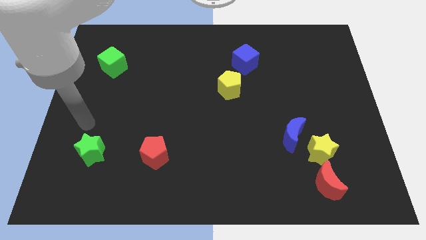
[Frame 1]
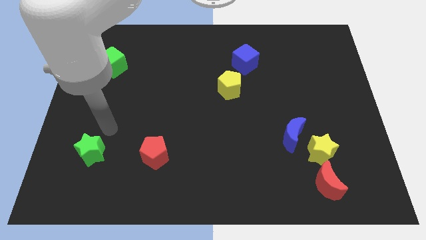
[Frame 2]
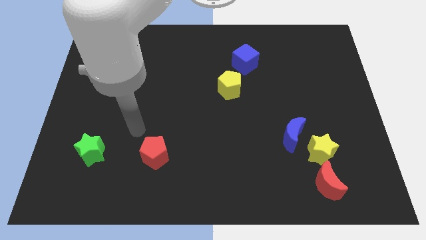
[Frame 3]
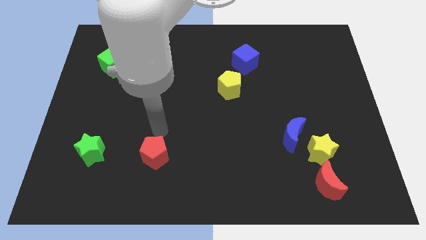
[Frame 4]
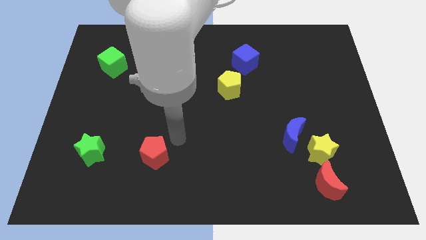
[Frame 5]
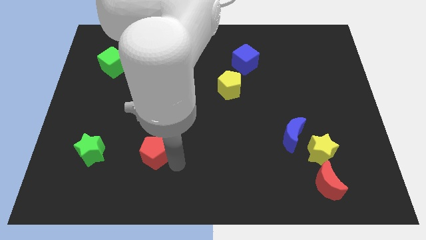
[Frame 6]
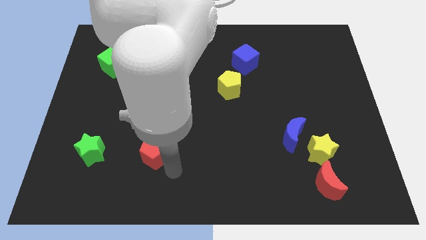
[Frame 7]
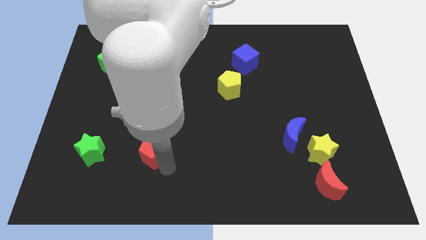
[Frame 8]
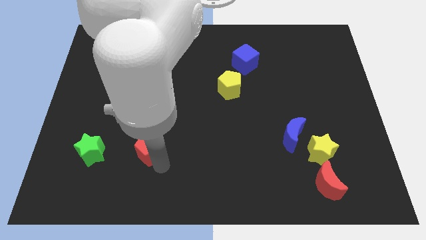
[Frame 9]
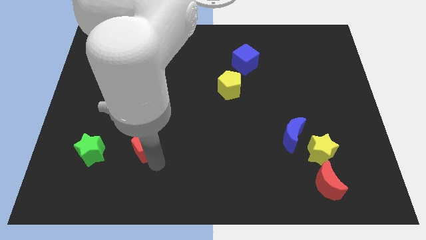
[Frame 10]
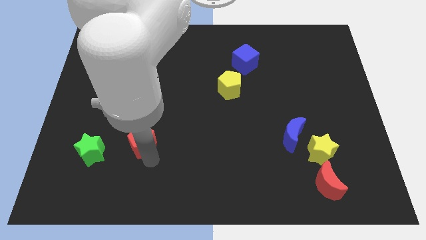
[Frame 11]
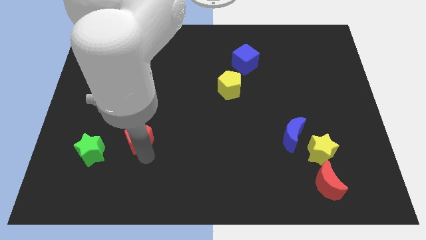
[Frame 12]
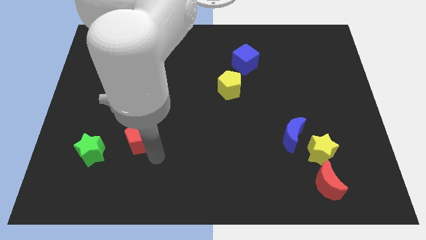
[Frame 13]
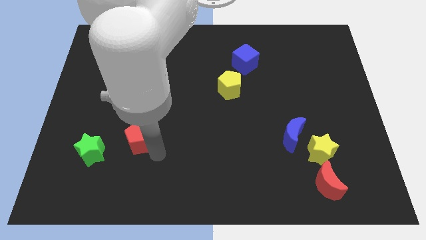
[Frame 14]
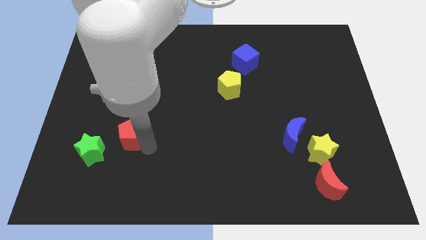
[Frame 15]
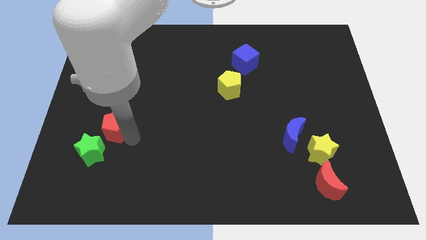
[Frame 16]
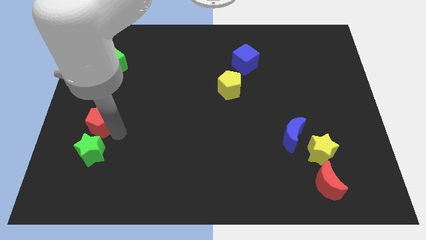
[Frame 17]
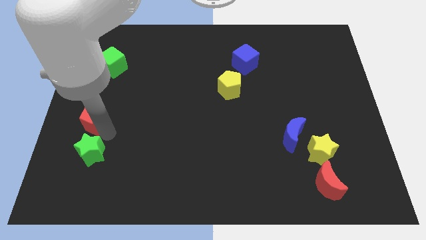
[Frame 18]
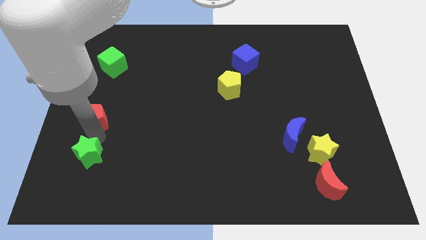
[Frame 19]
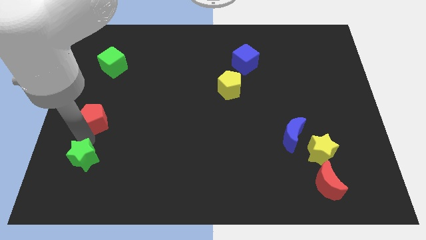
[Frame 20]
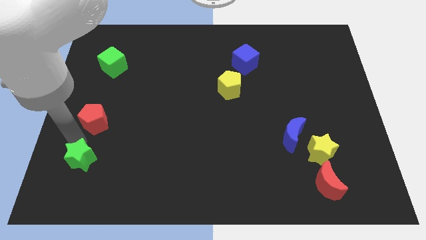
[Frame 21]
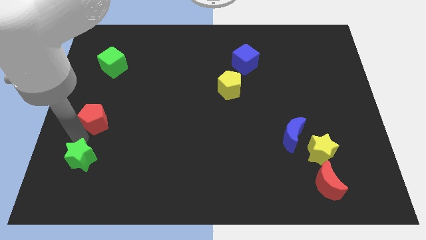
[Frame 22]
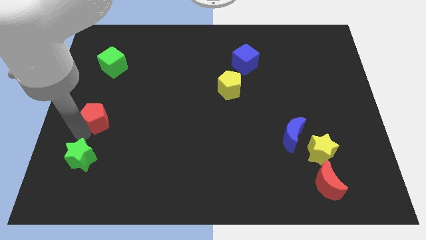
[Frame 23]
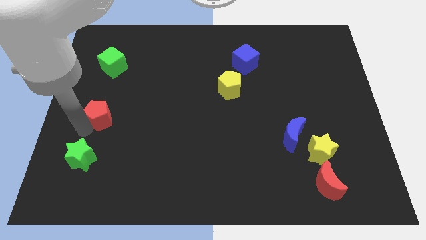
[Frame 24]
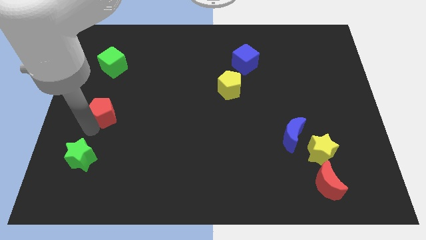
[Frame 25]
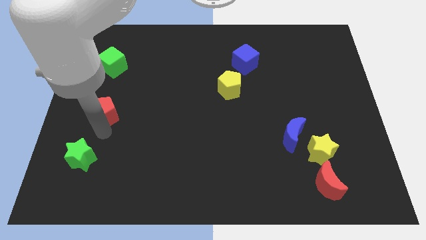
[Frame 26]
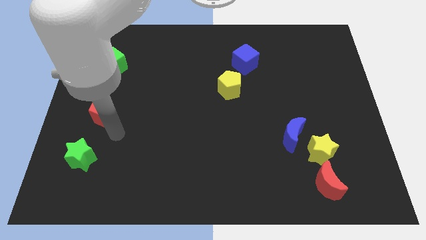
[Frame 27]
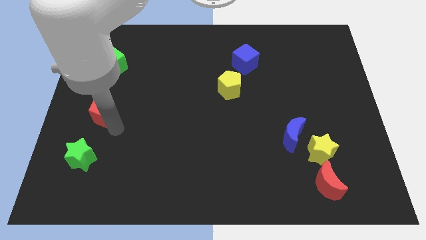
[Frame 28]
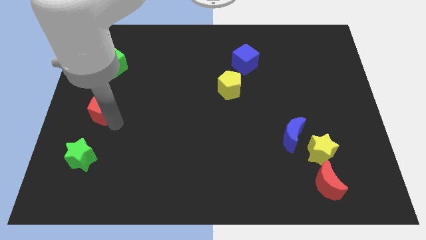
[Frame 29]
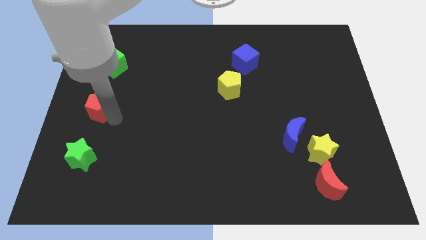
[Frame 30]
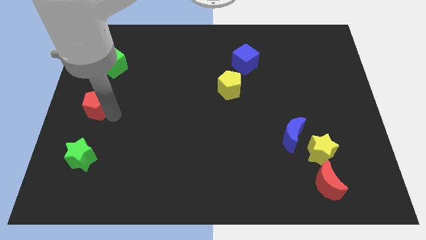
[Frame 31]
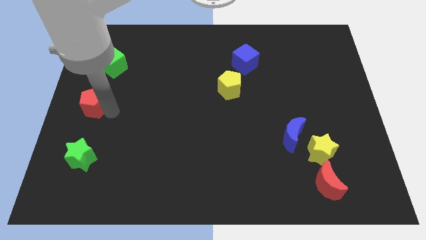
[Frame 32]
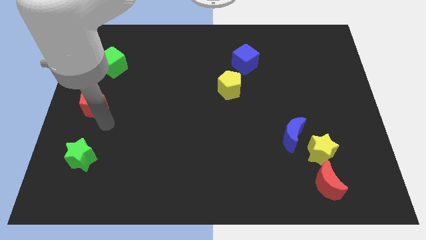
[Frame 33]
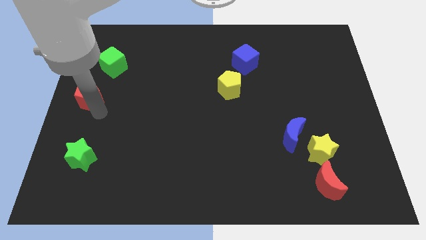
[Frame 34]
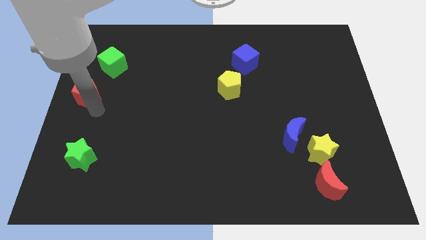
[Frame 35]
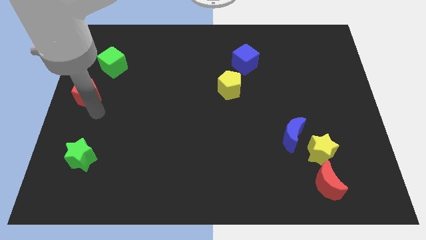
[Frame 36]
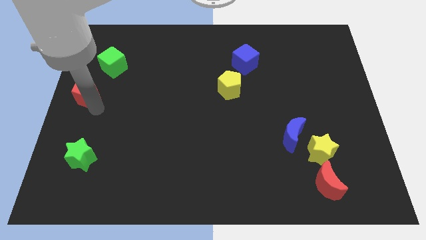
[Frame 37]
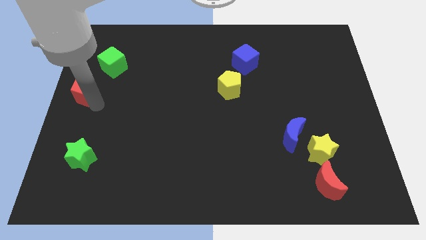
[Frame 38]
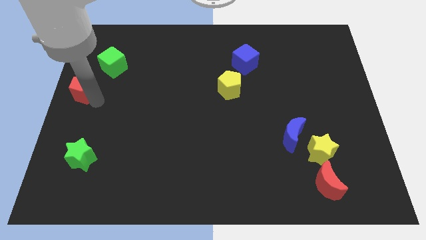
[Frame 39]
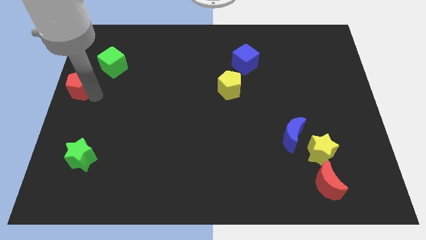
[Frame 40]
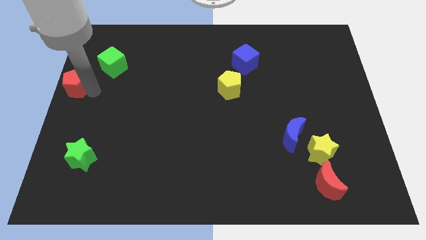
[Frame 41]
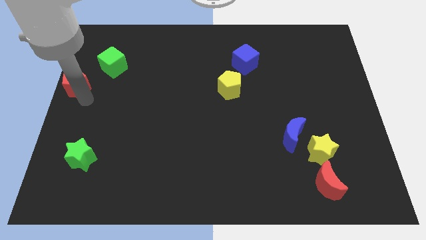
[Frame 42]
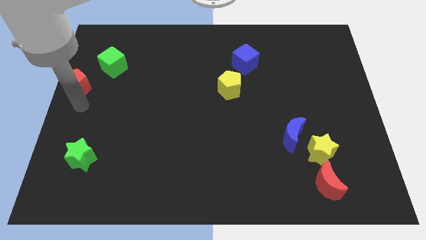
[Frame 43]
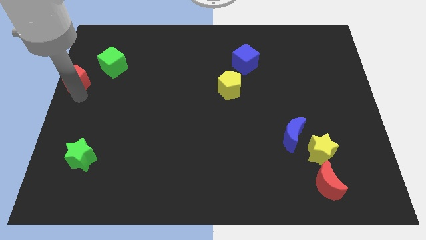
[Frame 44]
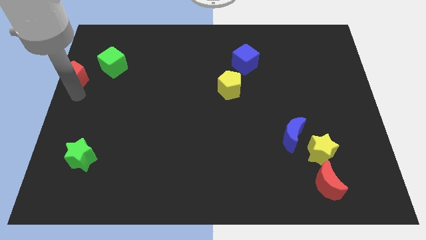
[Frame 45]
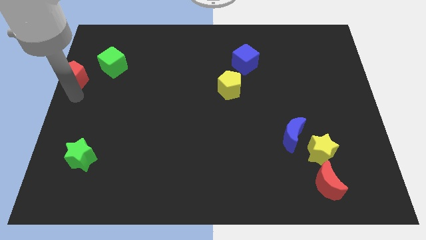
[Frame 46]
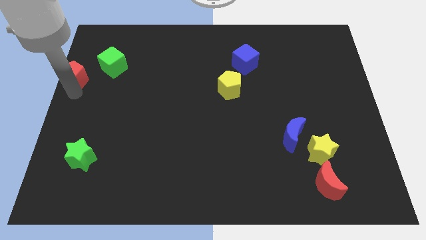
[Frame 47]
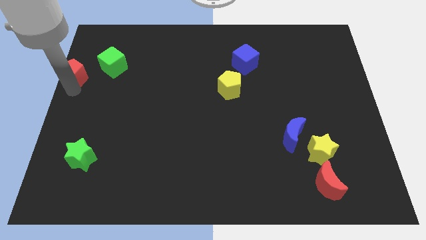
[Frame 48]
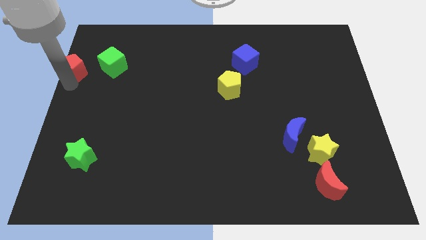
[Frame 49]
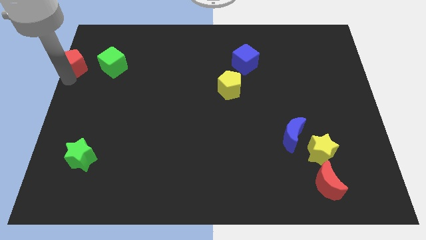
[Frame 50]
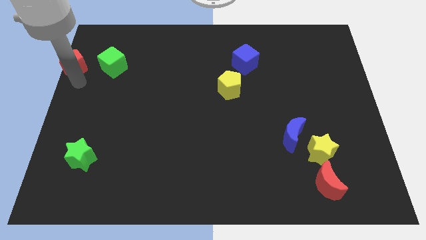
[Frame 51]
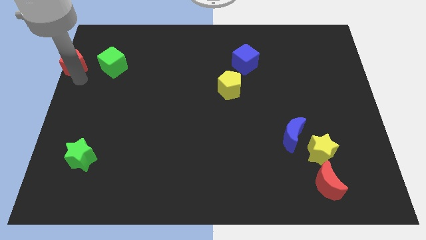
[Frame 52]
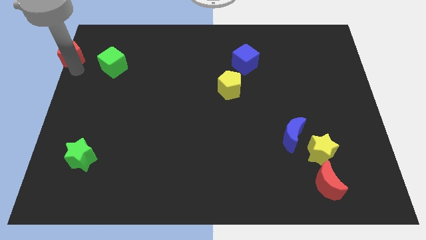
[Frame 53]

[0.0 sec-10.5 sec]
move the red pentagon to the top left corner

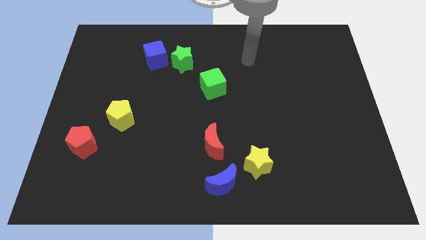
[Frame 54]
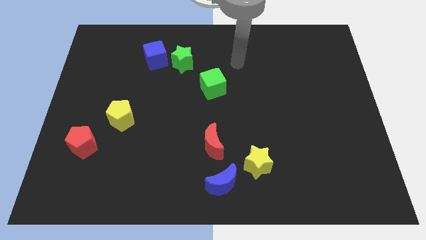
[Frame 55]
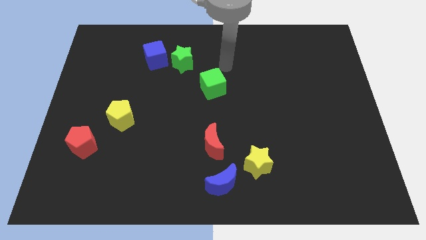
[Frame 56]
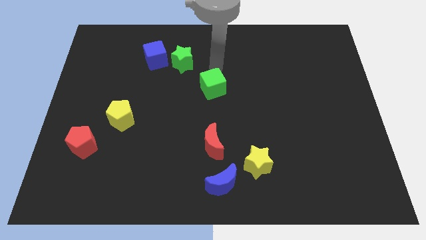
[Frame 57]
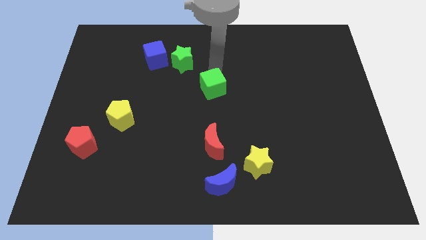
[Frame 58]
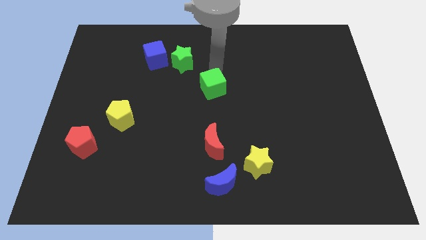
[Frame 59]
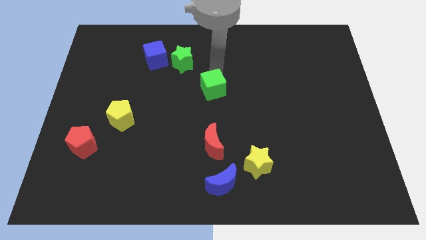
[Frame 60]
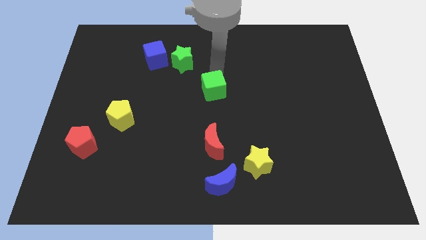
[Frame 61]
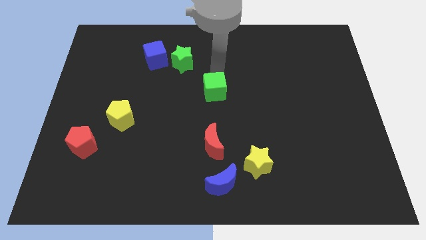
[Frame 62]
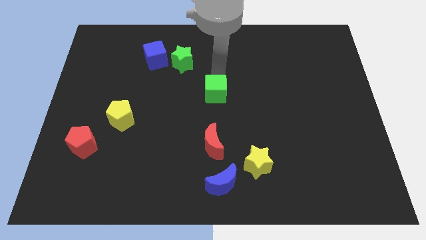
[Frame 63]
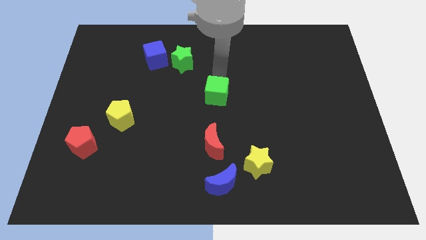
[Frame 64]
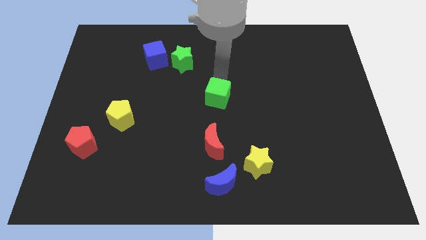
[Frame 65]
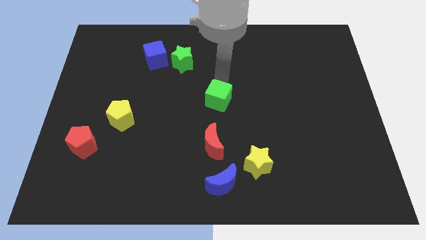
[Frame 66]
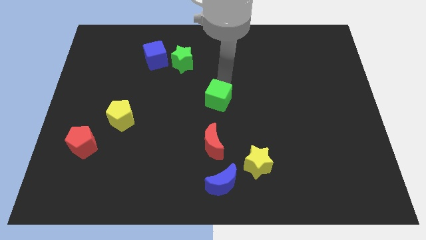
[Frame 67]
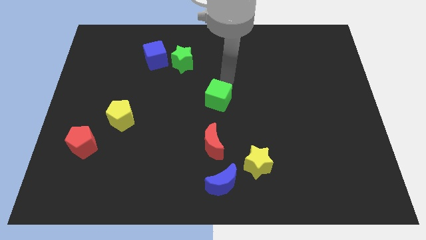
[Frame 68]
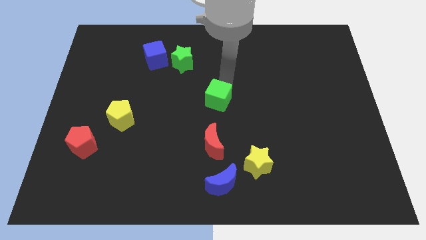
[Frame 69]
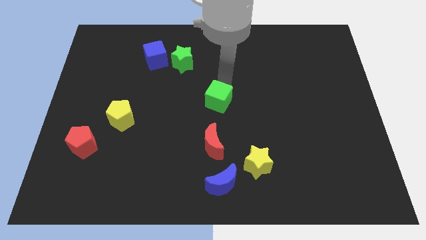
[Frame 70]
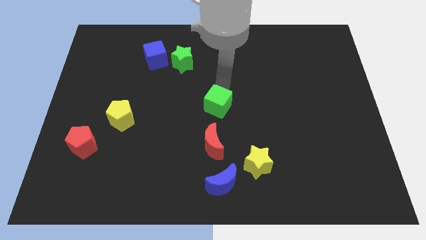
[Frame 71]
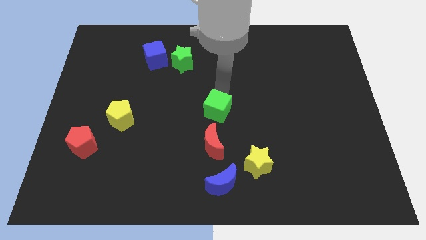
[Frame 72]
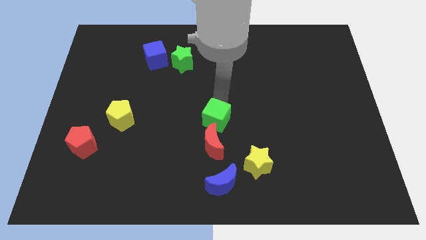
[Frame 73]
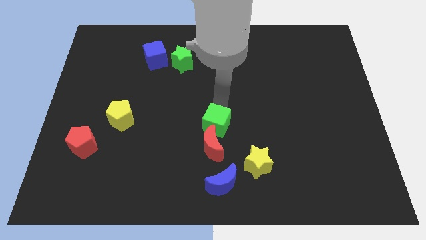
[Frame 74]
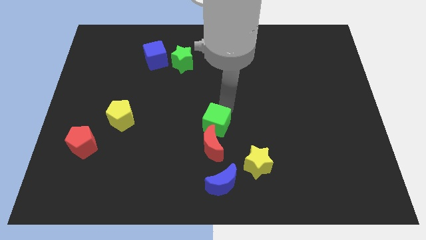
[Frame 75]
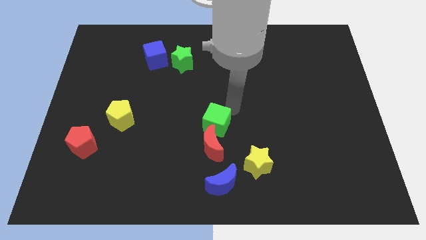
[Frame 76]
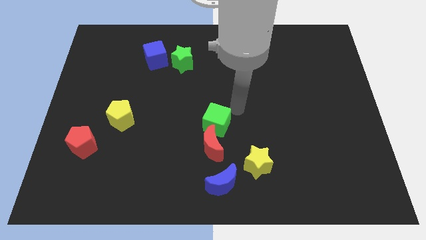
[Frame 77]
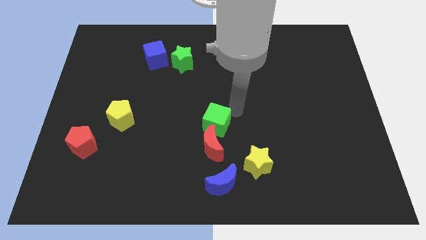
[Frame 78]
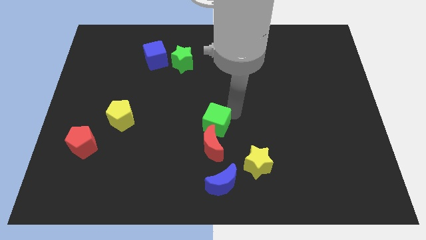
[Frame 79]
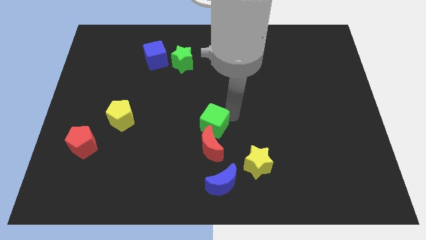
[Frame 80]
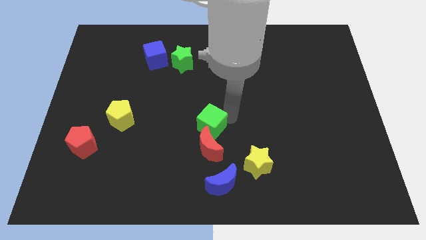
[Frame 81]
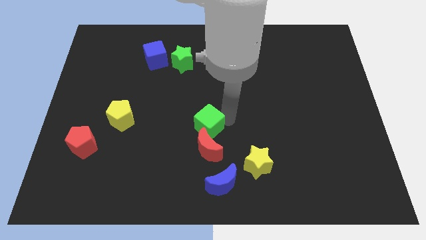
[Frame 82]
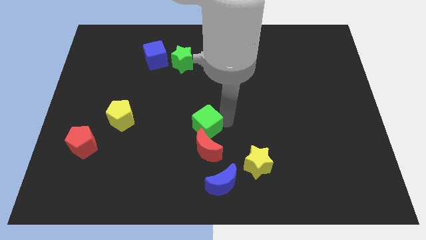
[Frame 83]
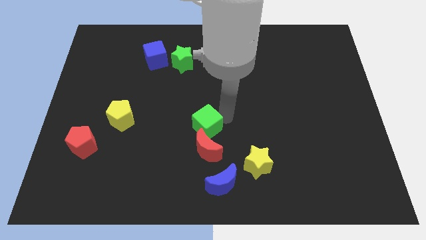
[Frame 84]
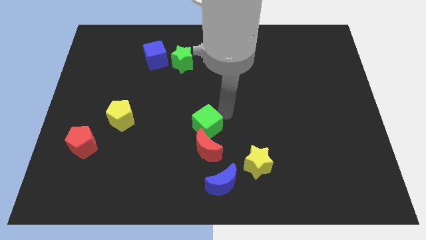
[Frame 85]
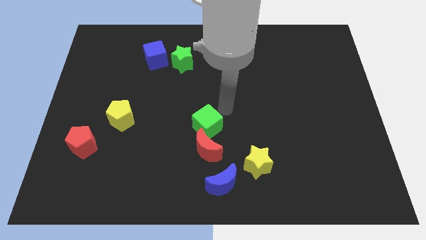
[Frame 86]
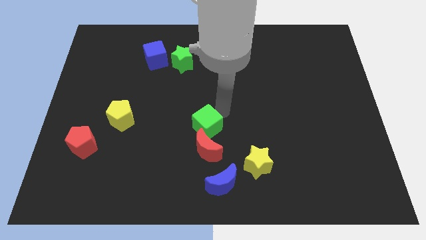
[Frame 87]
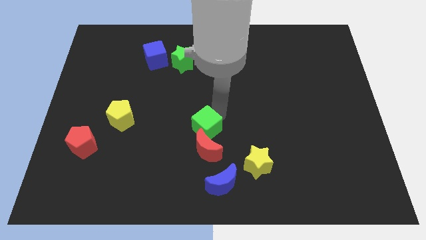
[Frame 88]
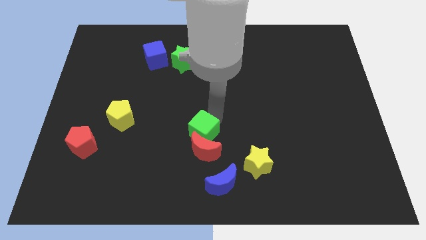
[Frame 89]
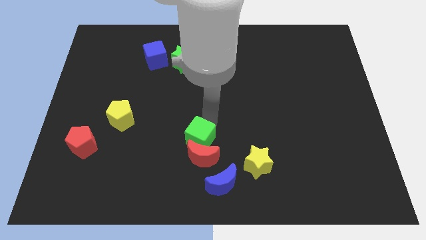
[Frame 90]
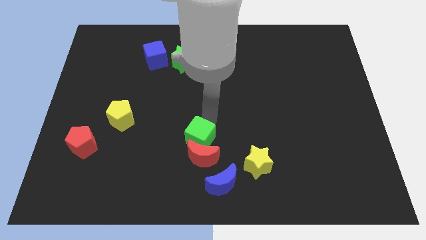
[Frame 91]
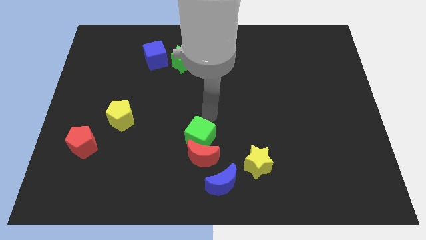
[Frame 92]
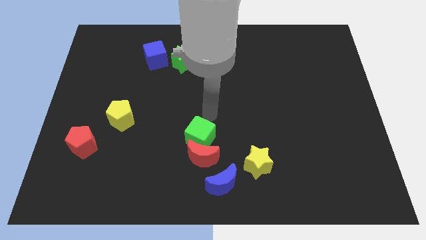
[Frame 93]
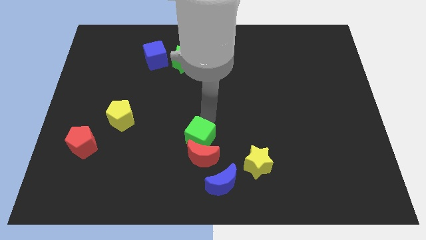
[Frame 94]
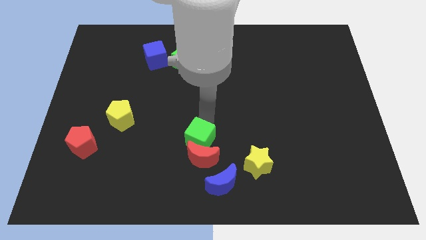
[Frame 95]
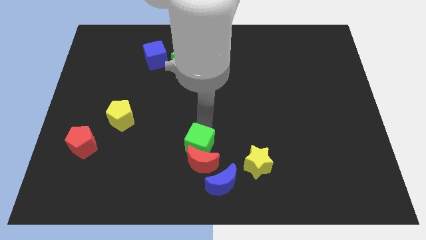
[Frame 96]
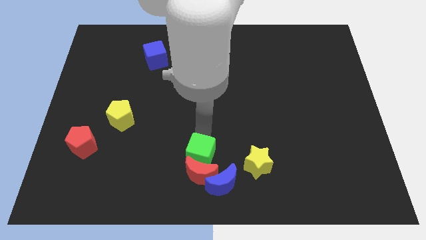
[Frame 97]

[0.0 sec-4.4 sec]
push the green cube to the bottom
